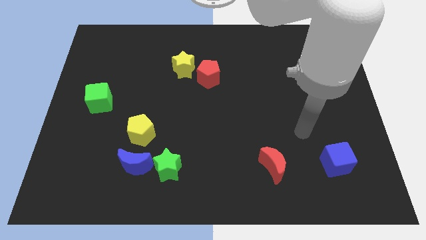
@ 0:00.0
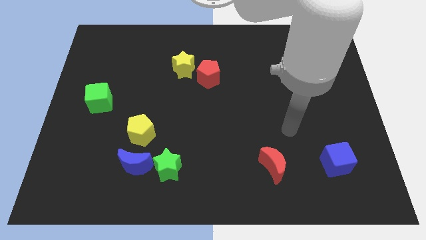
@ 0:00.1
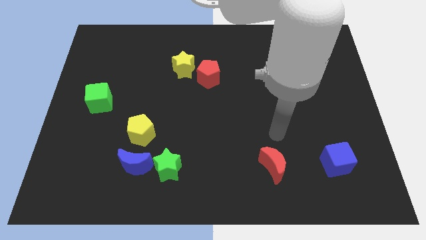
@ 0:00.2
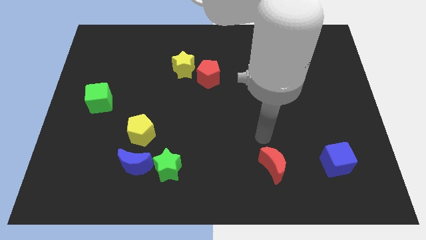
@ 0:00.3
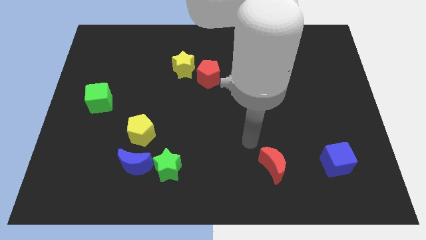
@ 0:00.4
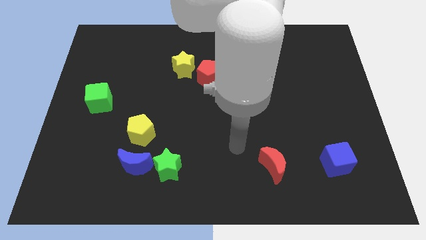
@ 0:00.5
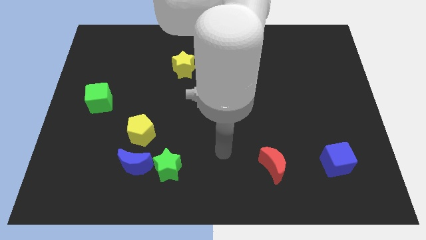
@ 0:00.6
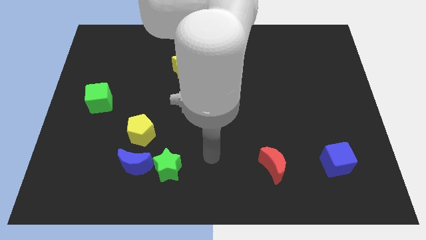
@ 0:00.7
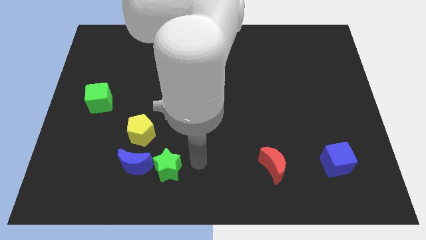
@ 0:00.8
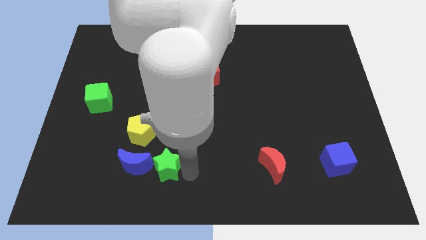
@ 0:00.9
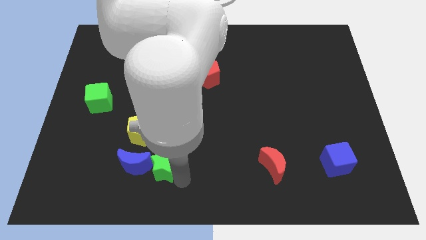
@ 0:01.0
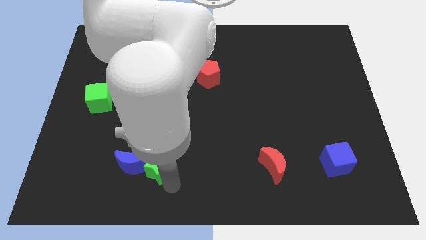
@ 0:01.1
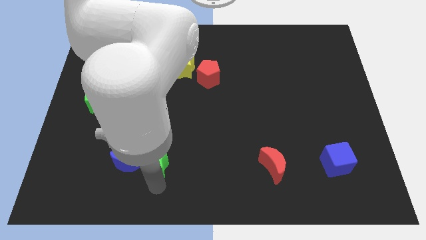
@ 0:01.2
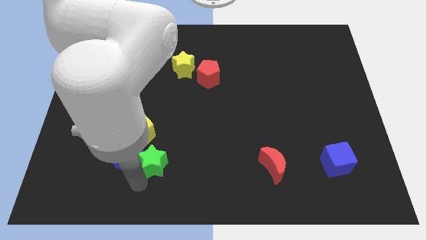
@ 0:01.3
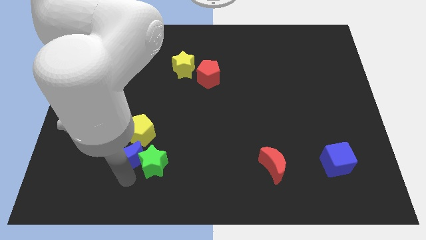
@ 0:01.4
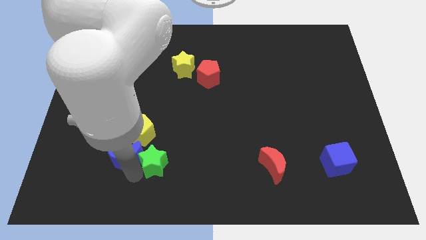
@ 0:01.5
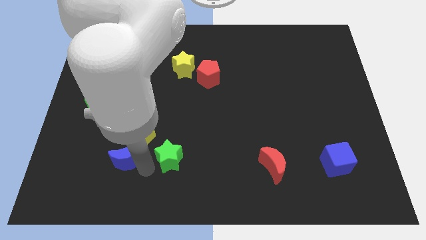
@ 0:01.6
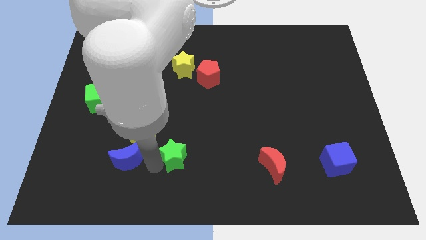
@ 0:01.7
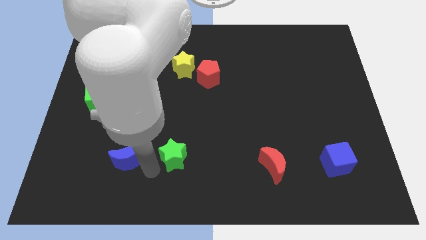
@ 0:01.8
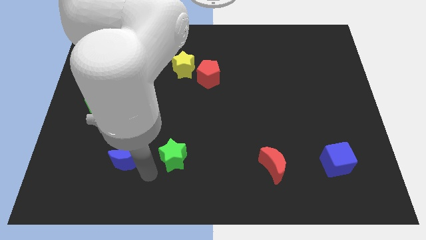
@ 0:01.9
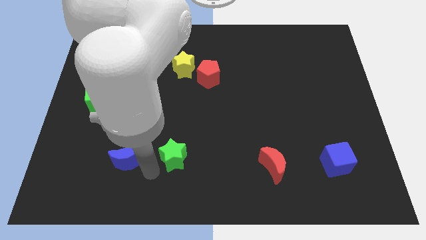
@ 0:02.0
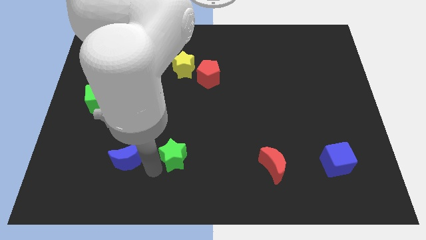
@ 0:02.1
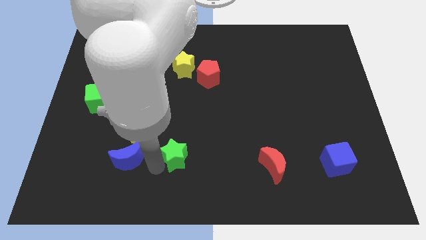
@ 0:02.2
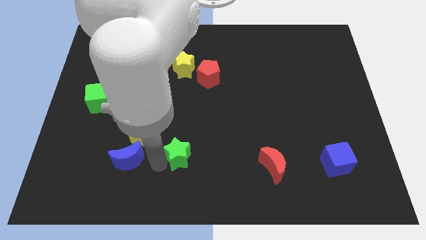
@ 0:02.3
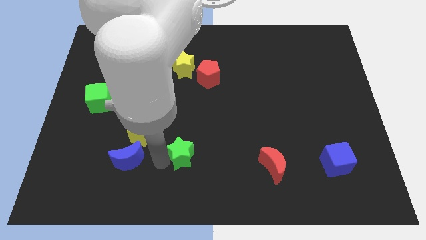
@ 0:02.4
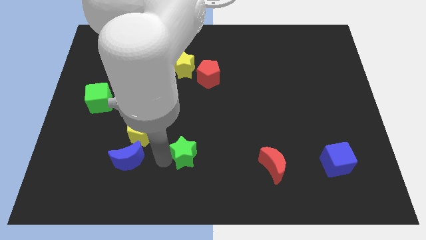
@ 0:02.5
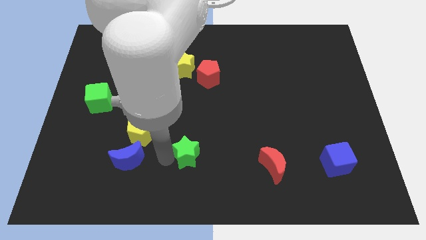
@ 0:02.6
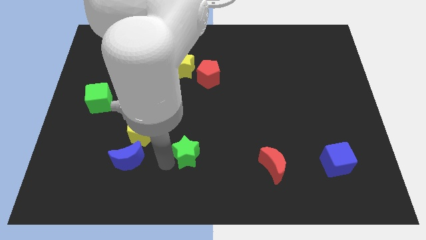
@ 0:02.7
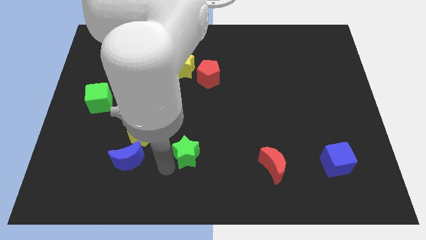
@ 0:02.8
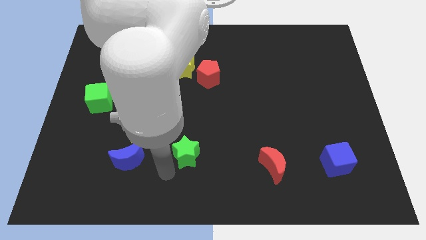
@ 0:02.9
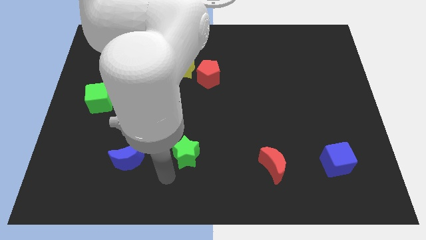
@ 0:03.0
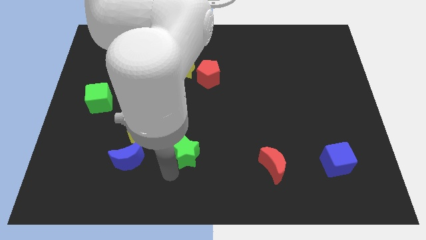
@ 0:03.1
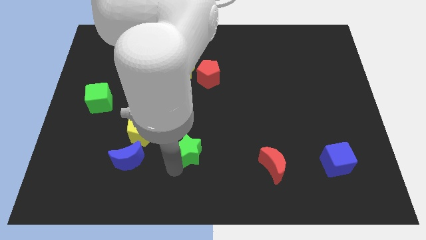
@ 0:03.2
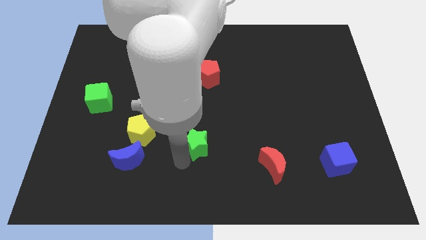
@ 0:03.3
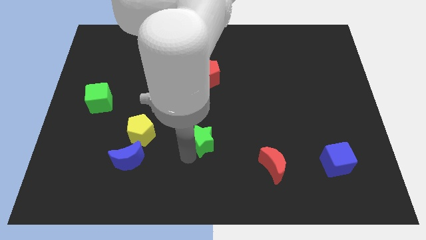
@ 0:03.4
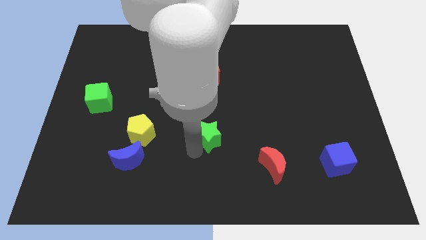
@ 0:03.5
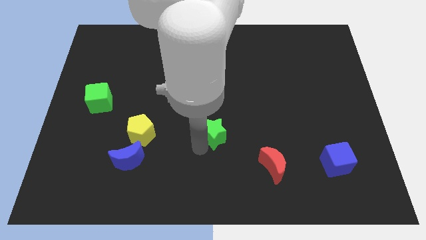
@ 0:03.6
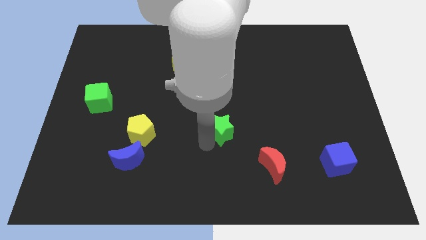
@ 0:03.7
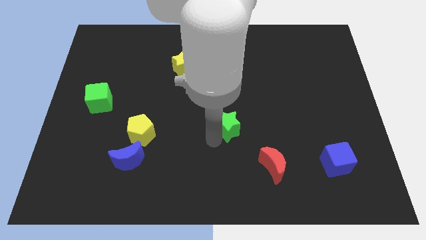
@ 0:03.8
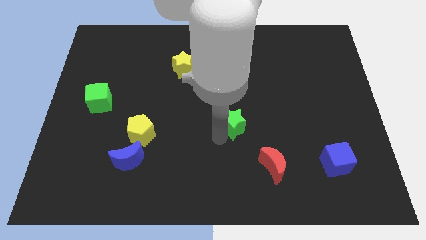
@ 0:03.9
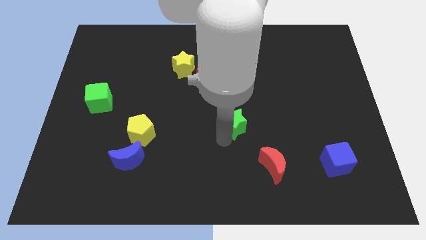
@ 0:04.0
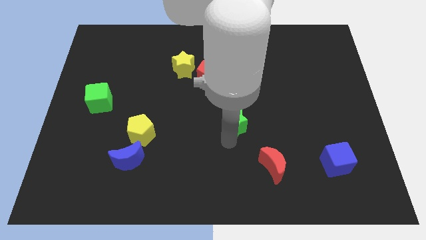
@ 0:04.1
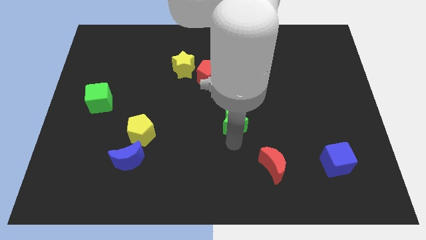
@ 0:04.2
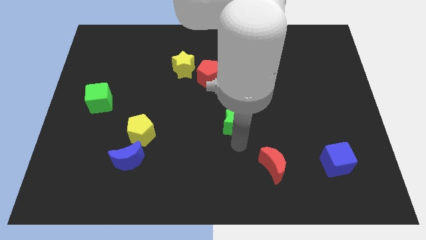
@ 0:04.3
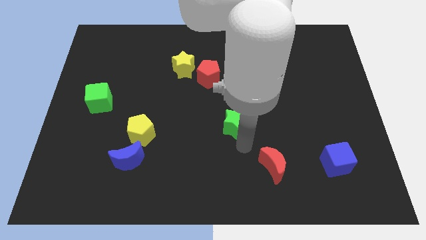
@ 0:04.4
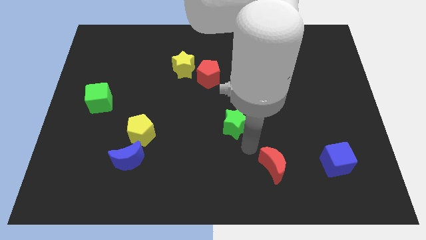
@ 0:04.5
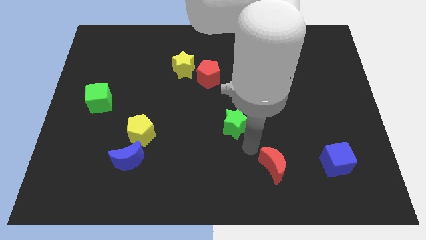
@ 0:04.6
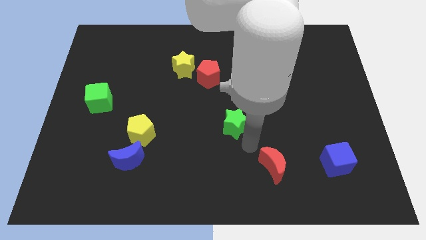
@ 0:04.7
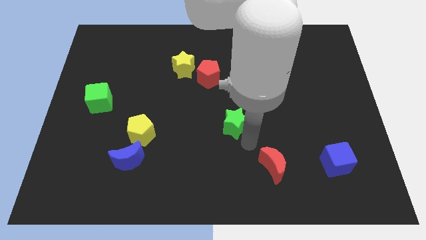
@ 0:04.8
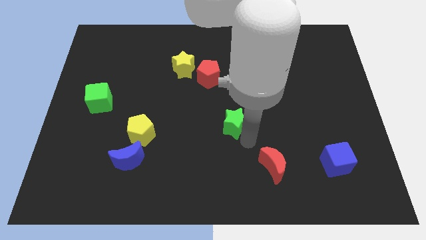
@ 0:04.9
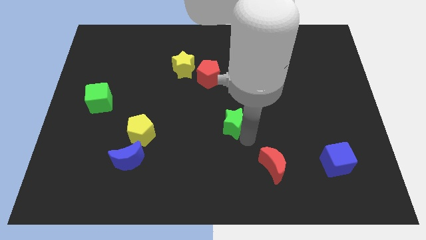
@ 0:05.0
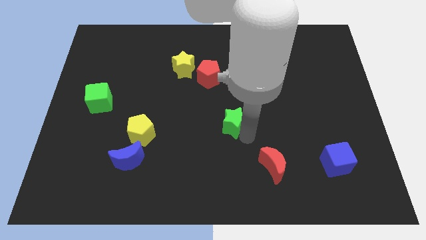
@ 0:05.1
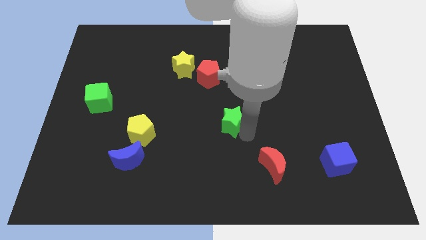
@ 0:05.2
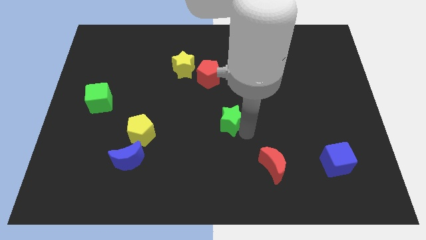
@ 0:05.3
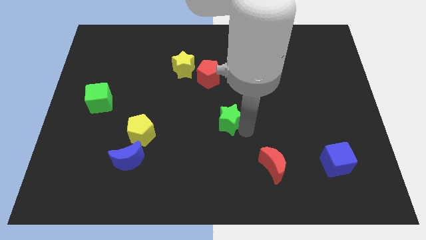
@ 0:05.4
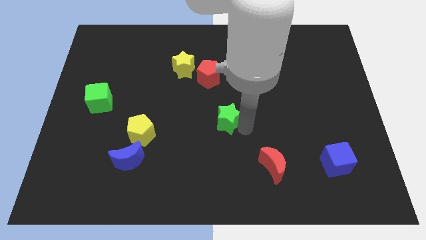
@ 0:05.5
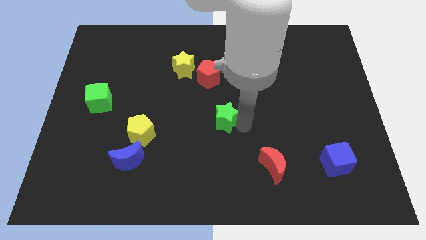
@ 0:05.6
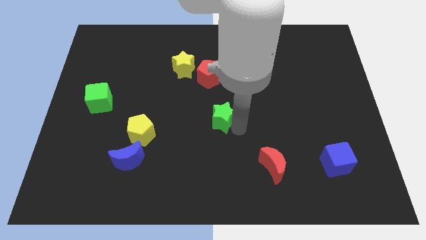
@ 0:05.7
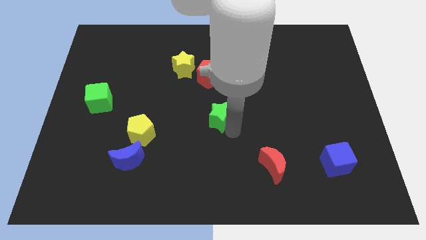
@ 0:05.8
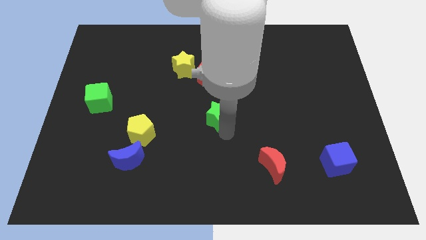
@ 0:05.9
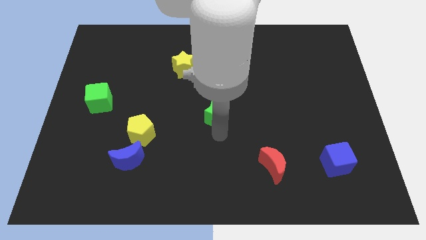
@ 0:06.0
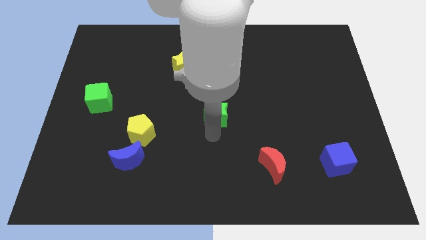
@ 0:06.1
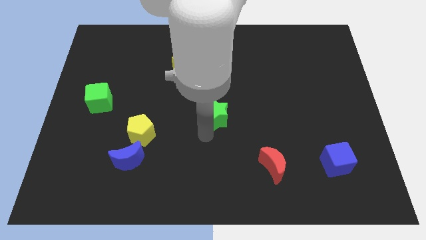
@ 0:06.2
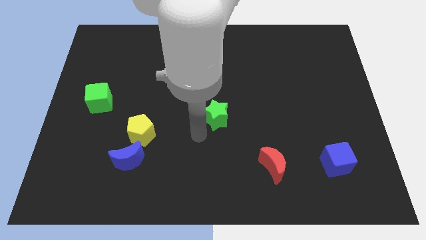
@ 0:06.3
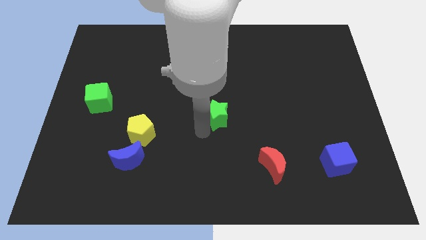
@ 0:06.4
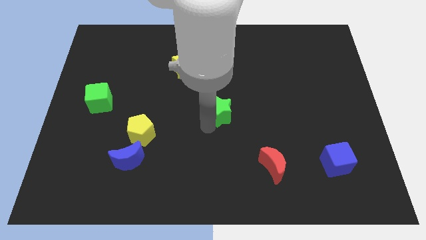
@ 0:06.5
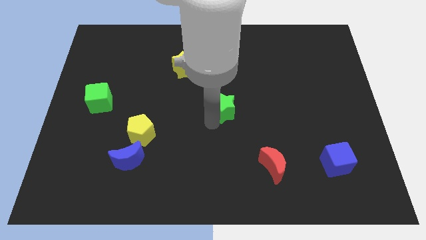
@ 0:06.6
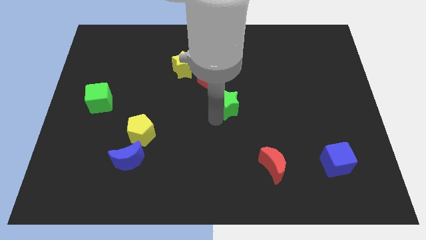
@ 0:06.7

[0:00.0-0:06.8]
slide the green star diagonally up and right

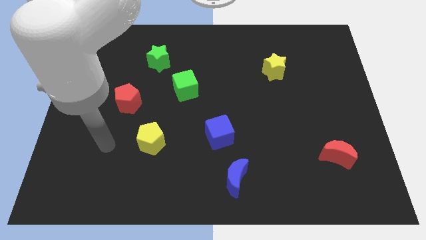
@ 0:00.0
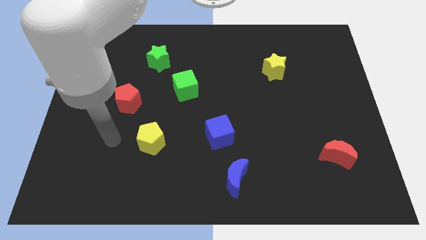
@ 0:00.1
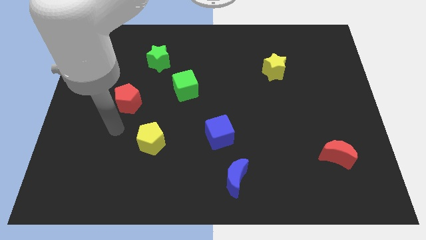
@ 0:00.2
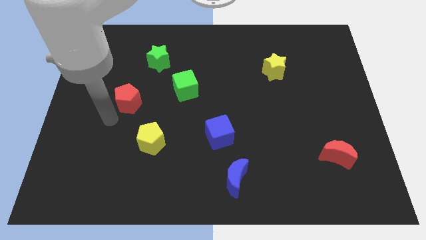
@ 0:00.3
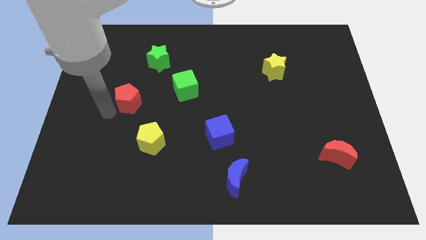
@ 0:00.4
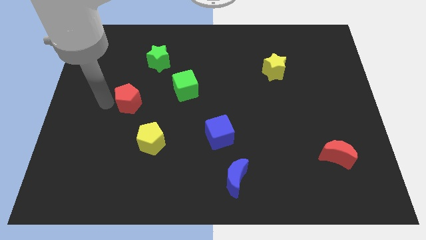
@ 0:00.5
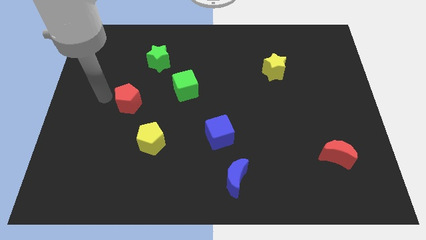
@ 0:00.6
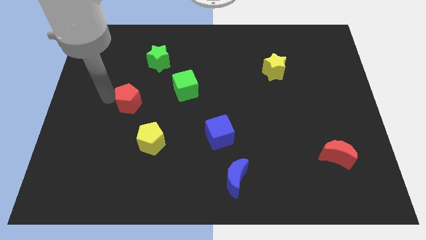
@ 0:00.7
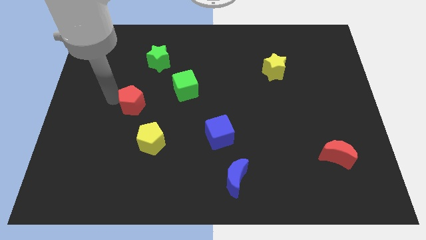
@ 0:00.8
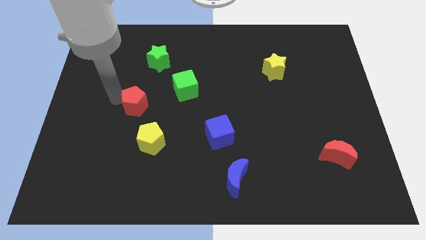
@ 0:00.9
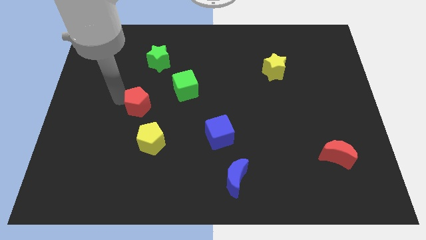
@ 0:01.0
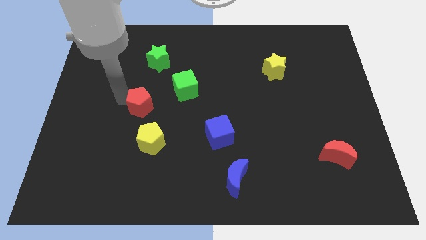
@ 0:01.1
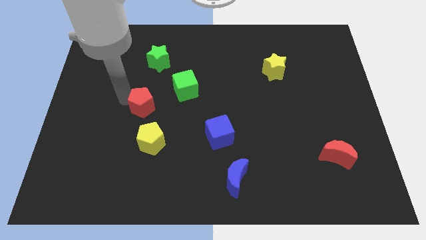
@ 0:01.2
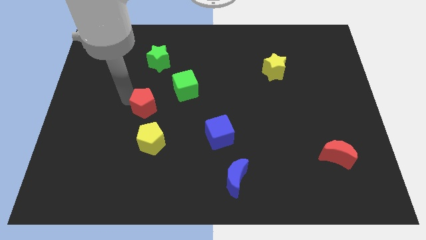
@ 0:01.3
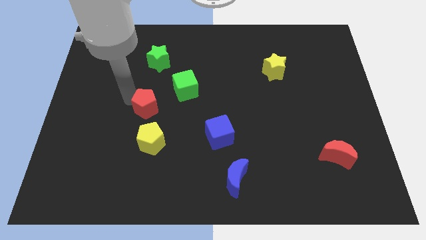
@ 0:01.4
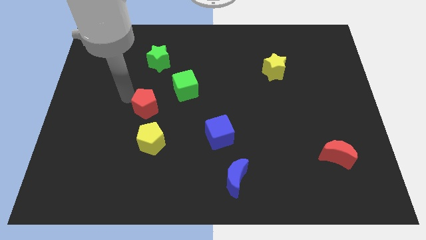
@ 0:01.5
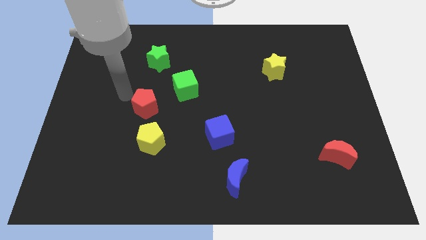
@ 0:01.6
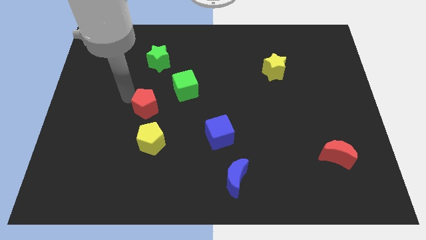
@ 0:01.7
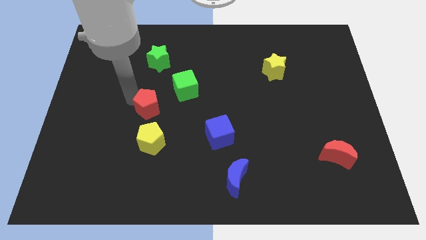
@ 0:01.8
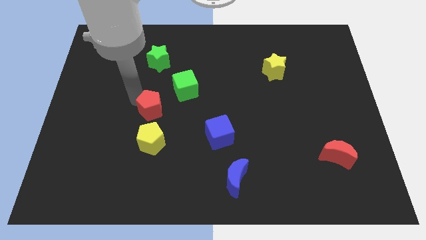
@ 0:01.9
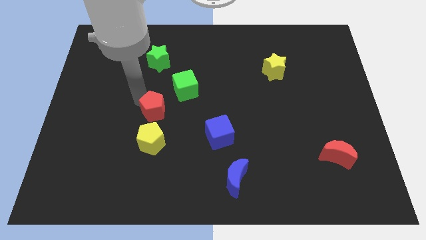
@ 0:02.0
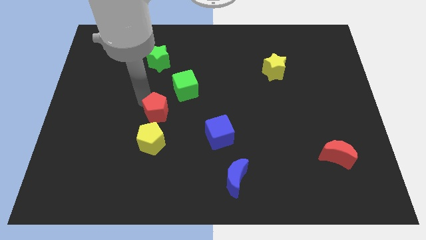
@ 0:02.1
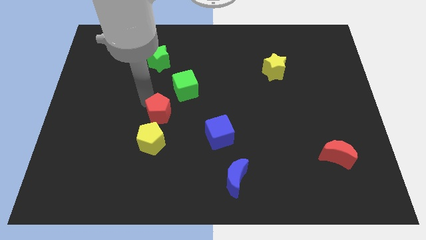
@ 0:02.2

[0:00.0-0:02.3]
slide the red pentagon diagonally downwards and right slightly
